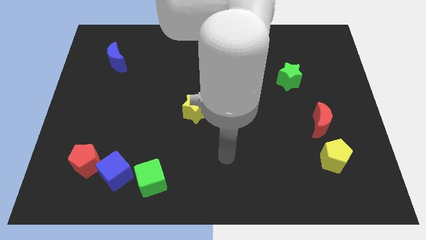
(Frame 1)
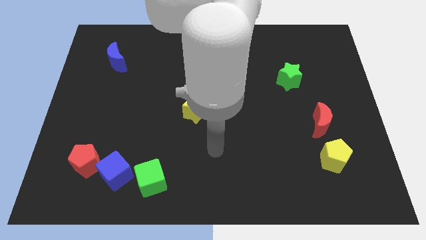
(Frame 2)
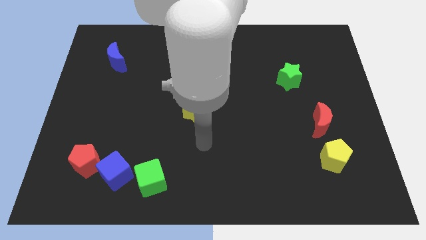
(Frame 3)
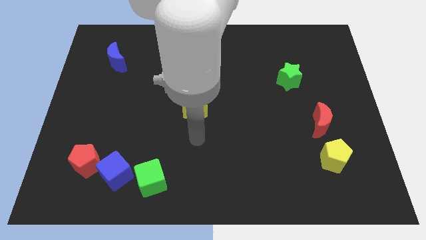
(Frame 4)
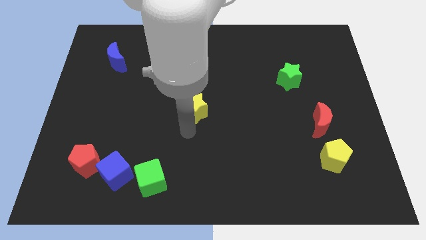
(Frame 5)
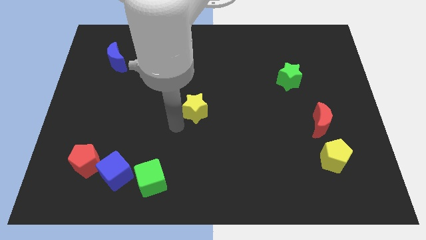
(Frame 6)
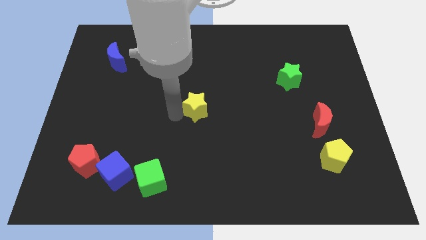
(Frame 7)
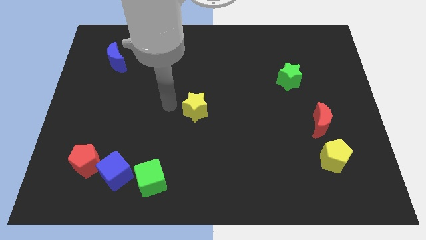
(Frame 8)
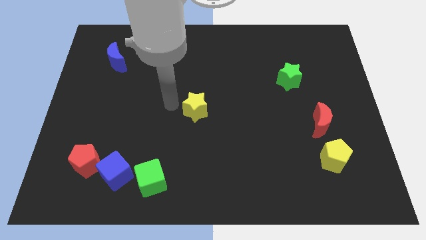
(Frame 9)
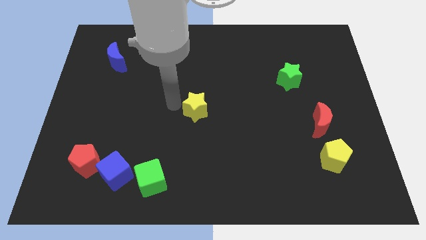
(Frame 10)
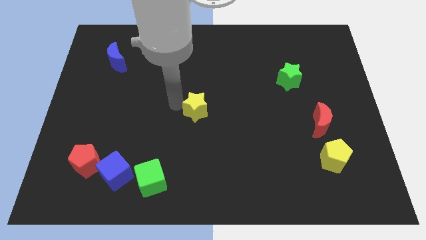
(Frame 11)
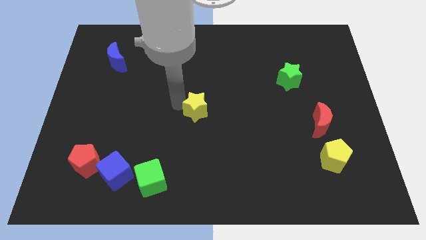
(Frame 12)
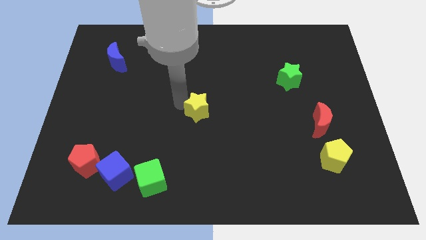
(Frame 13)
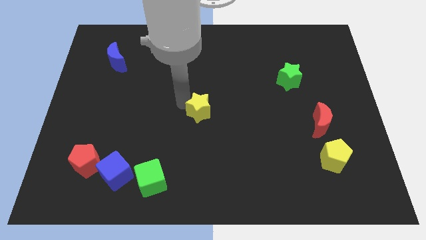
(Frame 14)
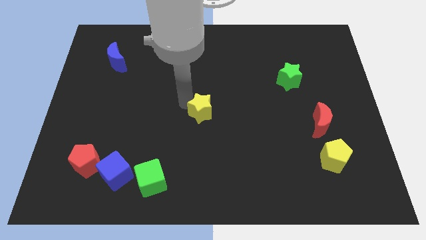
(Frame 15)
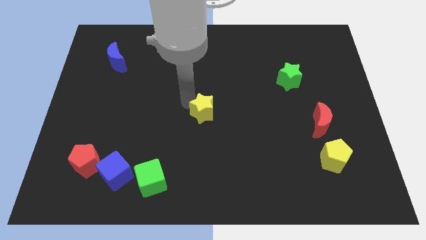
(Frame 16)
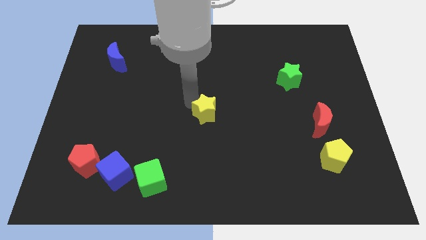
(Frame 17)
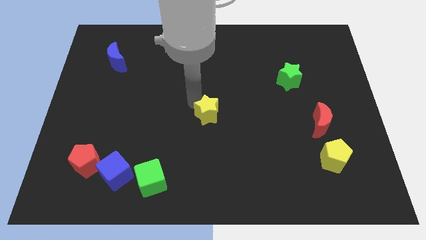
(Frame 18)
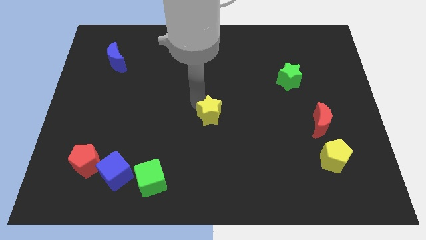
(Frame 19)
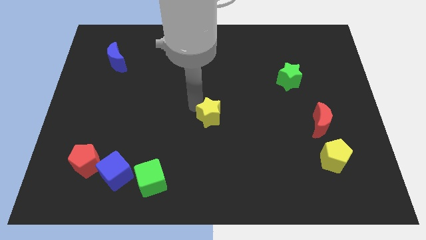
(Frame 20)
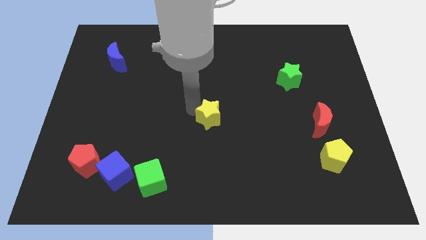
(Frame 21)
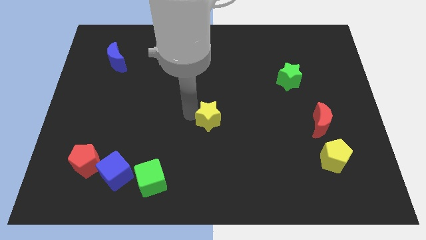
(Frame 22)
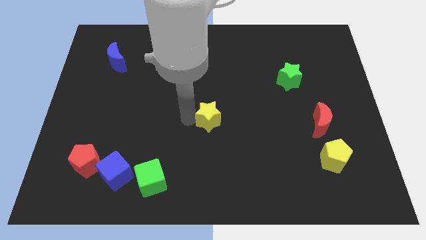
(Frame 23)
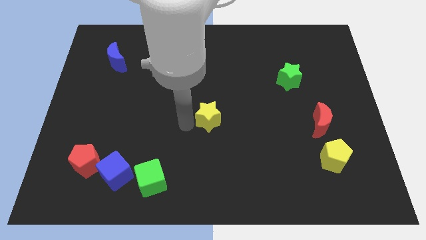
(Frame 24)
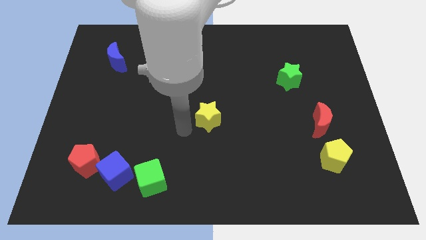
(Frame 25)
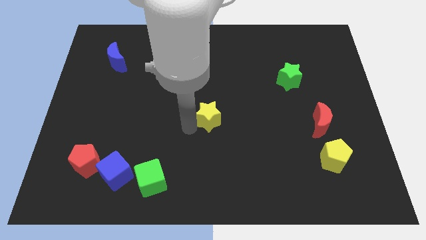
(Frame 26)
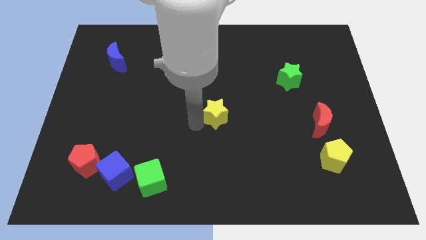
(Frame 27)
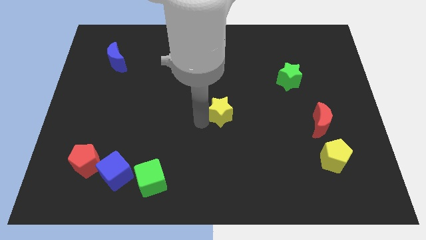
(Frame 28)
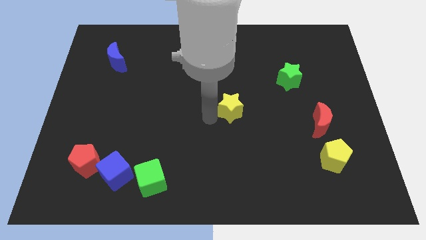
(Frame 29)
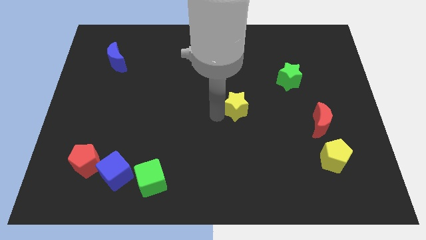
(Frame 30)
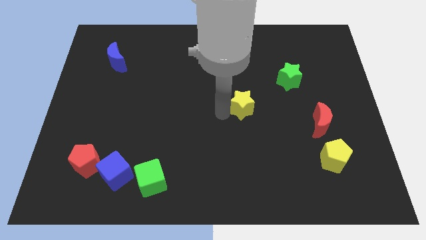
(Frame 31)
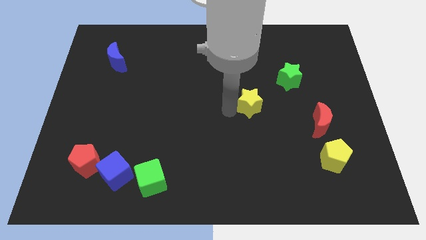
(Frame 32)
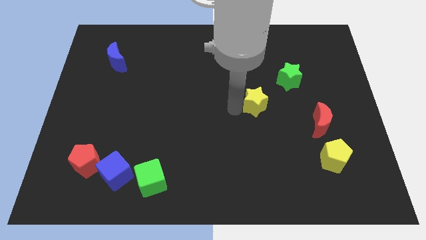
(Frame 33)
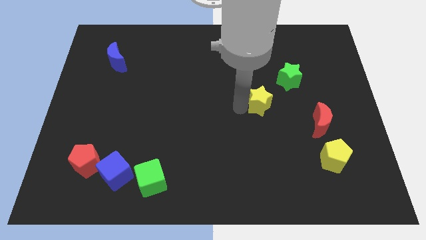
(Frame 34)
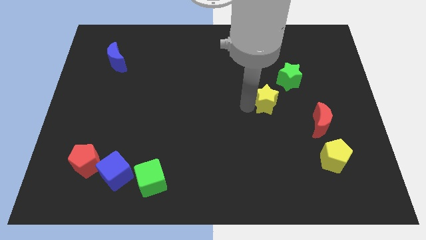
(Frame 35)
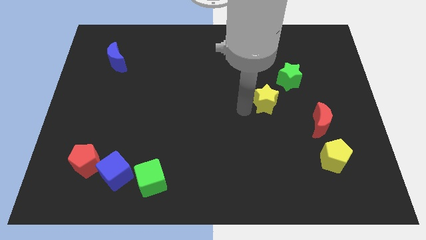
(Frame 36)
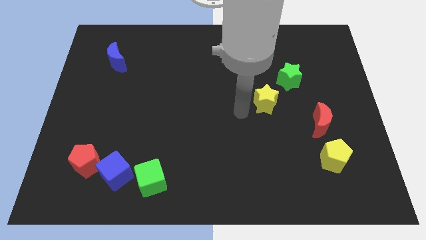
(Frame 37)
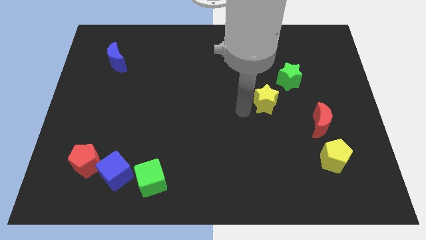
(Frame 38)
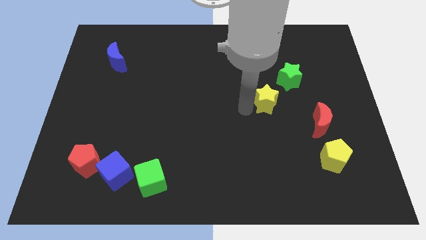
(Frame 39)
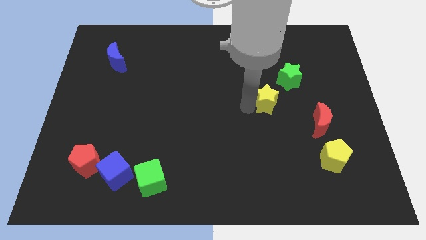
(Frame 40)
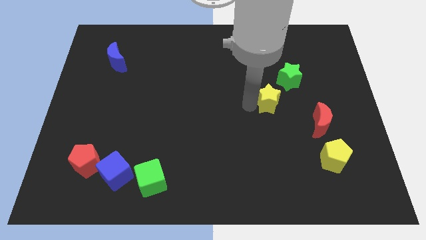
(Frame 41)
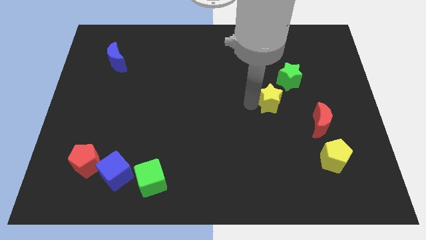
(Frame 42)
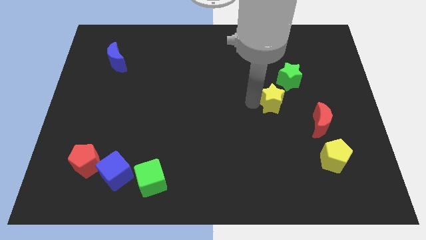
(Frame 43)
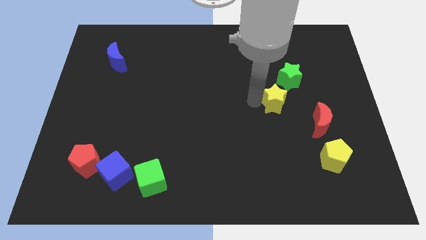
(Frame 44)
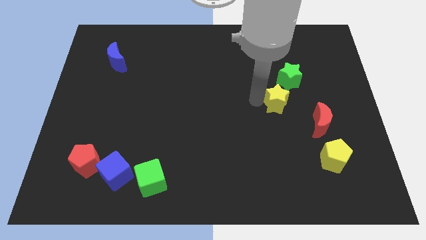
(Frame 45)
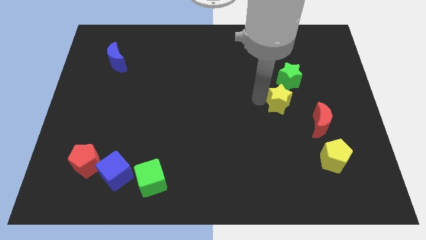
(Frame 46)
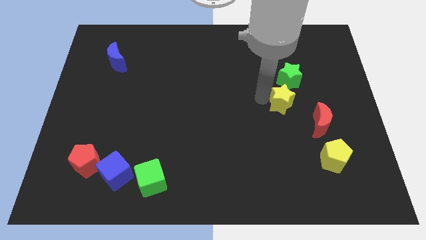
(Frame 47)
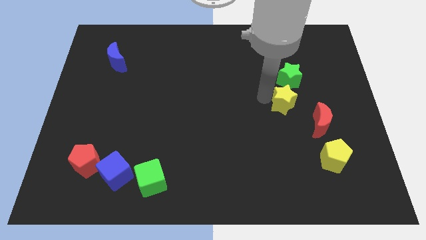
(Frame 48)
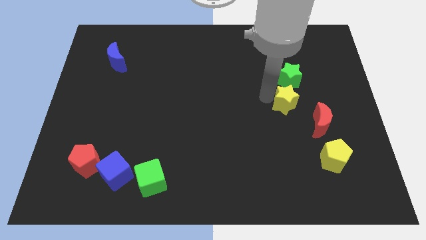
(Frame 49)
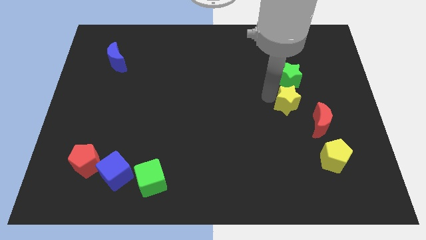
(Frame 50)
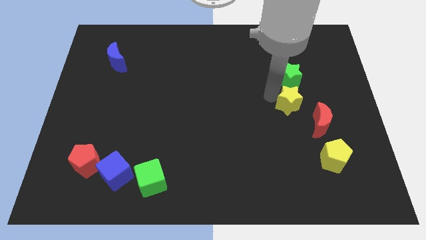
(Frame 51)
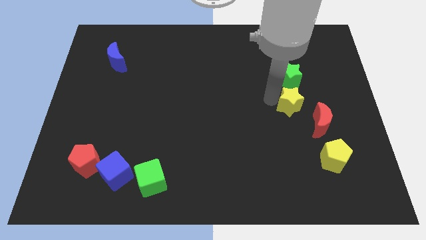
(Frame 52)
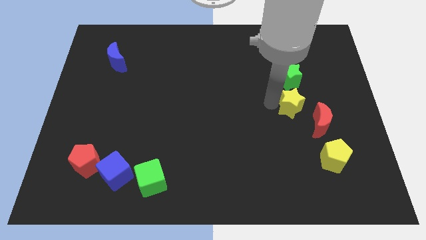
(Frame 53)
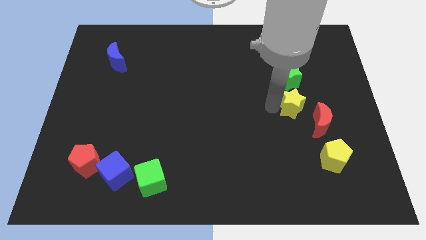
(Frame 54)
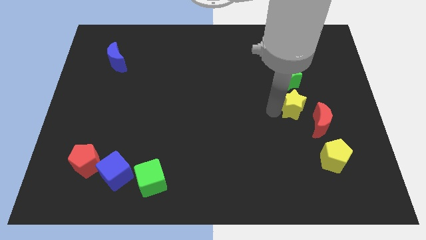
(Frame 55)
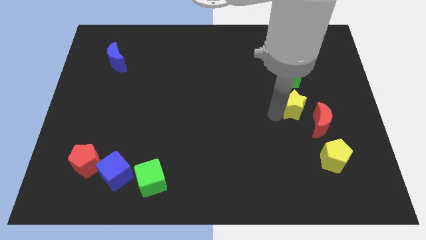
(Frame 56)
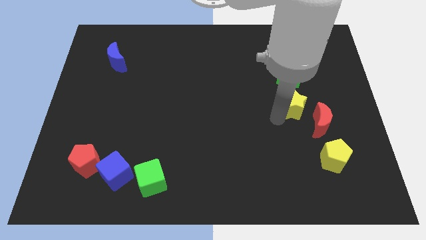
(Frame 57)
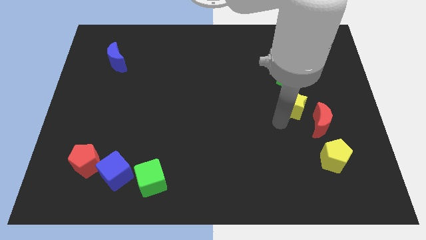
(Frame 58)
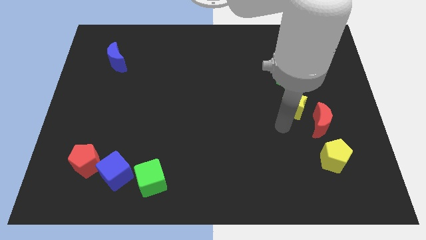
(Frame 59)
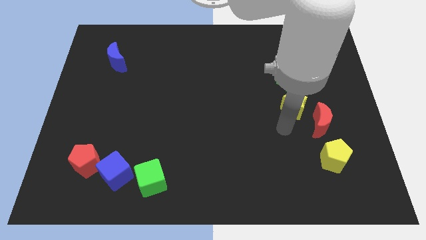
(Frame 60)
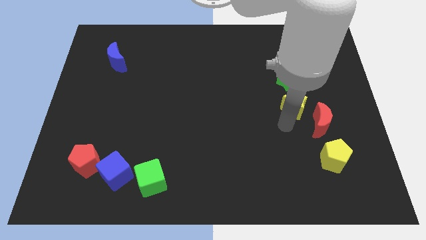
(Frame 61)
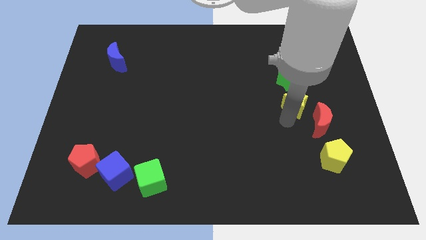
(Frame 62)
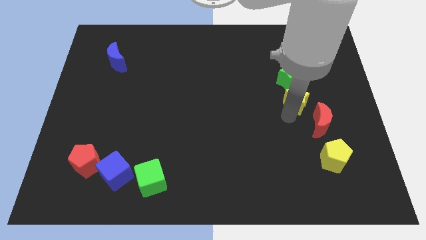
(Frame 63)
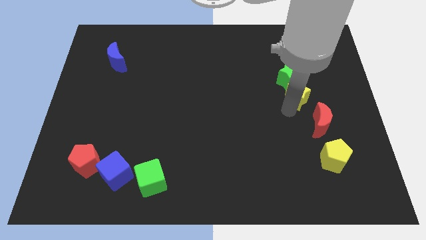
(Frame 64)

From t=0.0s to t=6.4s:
put the yellow star to the bottom right side of the green star

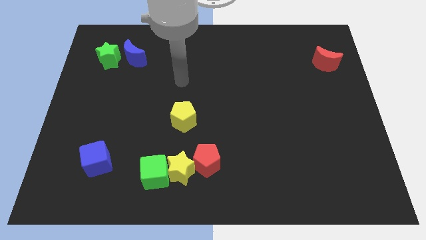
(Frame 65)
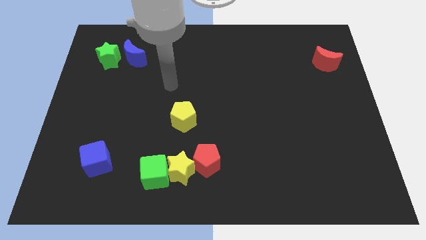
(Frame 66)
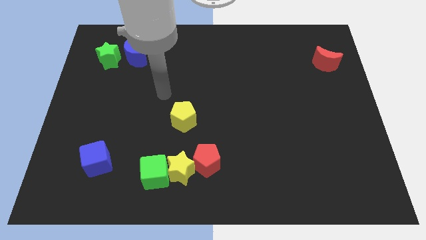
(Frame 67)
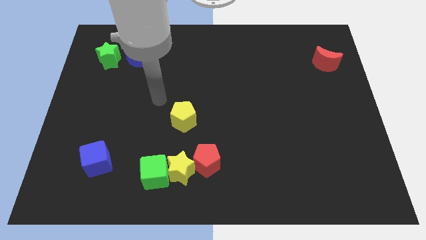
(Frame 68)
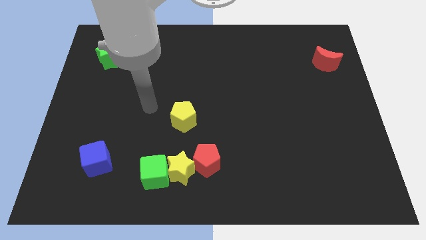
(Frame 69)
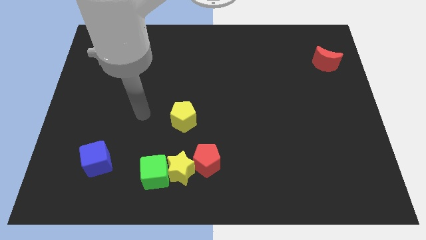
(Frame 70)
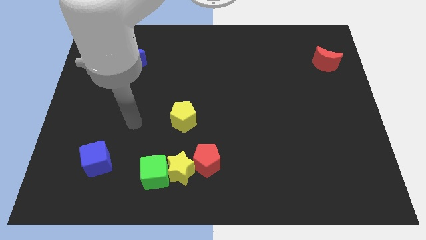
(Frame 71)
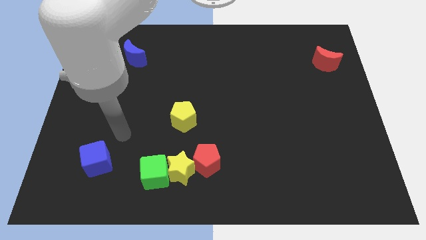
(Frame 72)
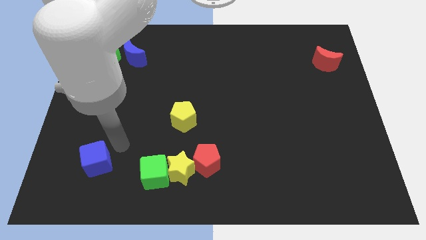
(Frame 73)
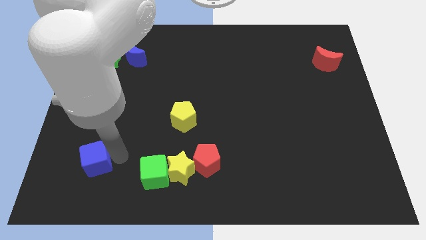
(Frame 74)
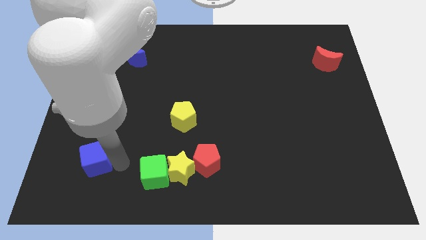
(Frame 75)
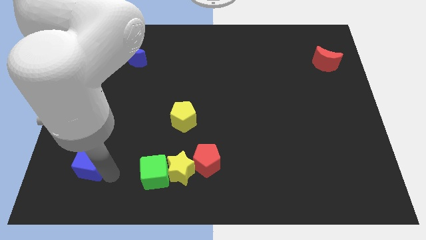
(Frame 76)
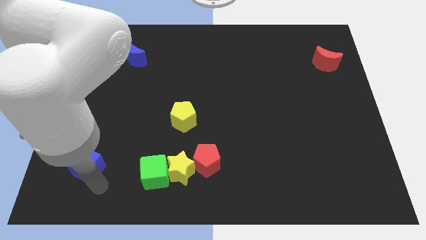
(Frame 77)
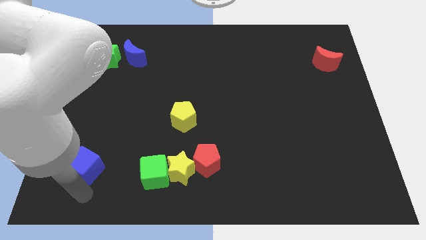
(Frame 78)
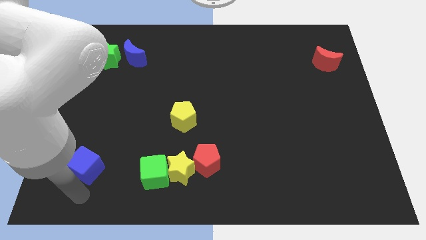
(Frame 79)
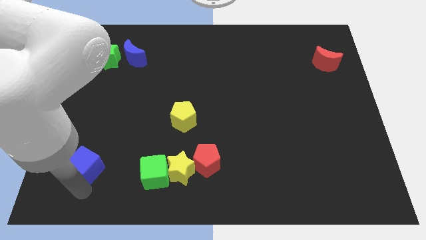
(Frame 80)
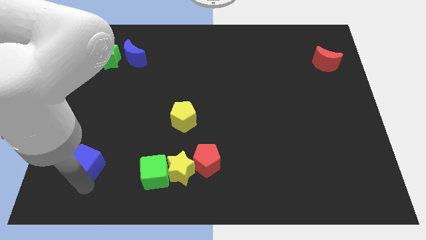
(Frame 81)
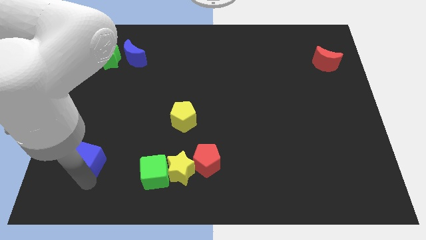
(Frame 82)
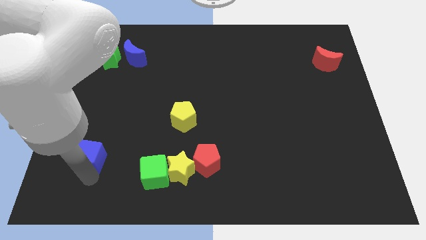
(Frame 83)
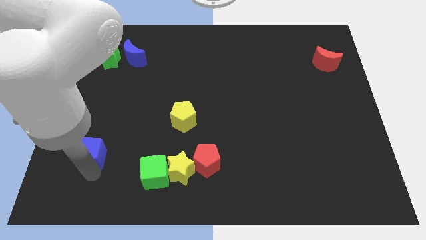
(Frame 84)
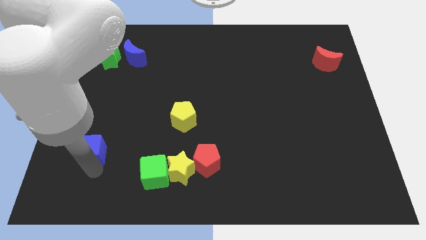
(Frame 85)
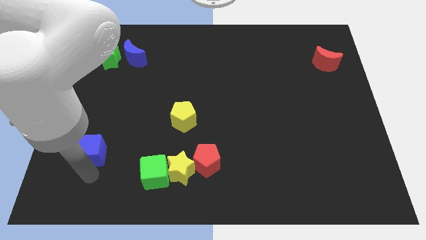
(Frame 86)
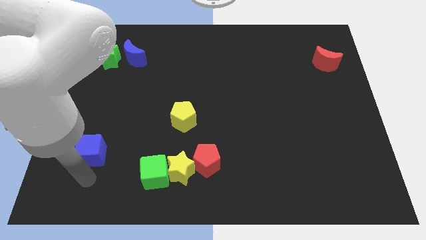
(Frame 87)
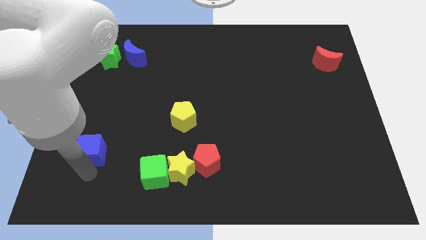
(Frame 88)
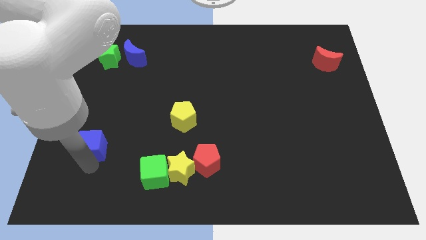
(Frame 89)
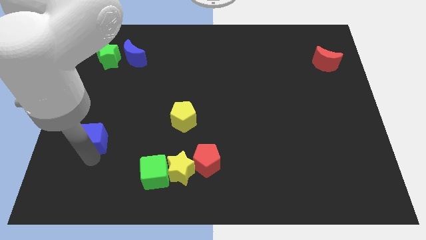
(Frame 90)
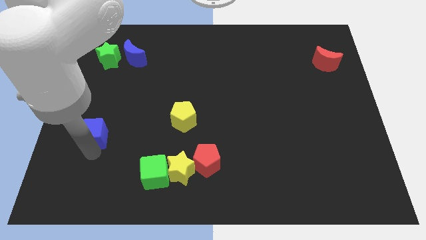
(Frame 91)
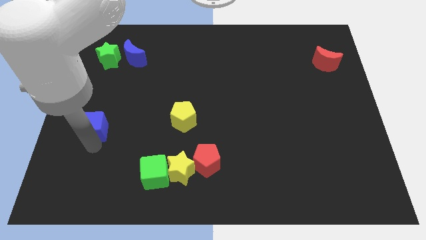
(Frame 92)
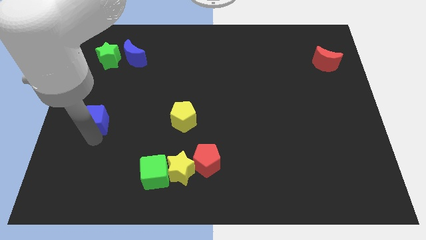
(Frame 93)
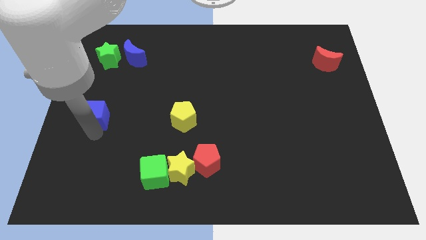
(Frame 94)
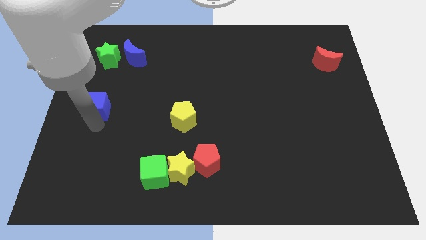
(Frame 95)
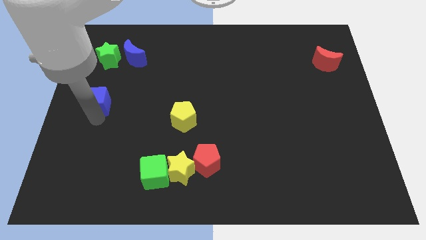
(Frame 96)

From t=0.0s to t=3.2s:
slide the blue cube below the green star
